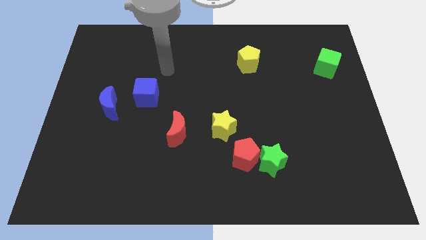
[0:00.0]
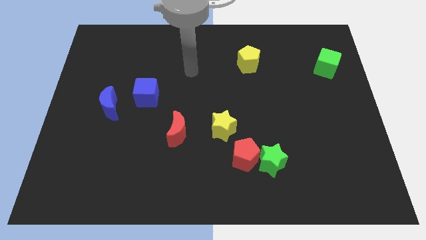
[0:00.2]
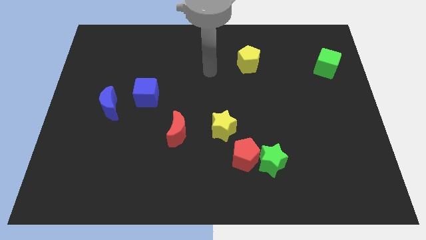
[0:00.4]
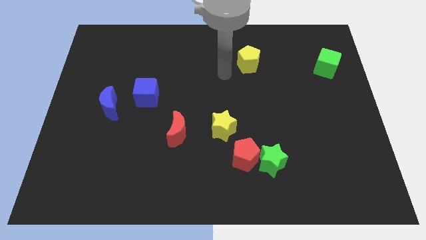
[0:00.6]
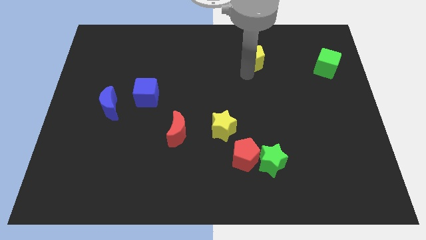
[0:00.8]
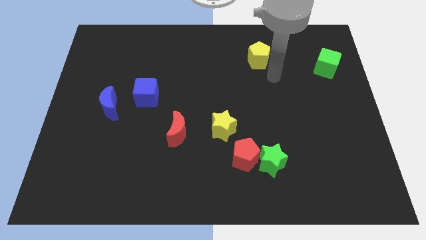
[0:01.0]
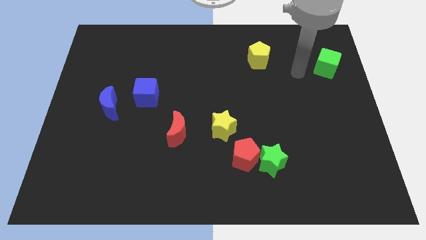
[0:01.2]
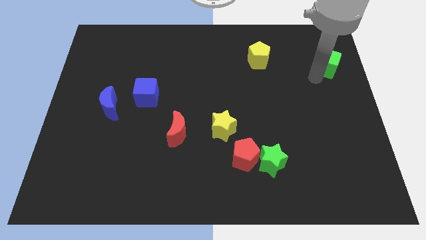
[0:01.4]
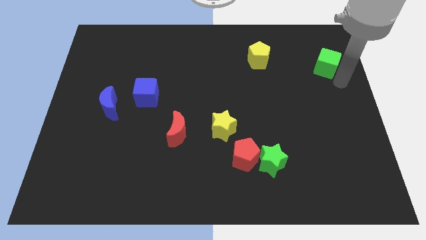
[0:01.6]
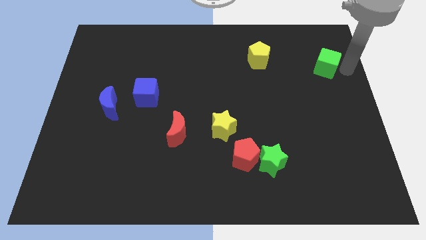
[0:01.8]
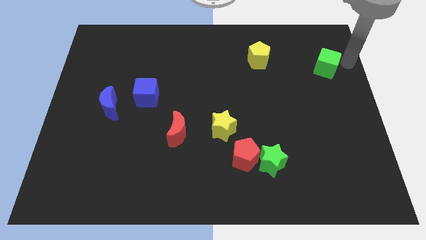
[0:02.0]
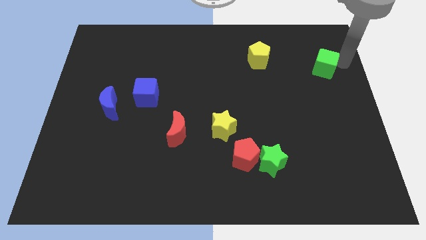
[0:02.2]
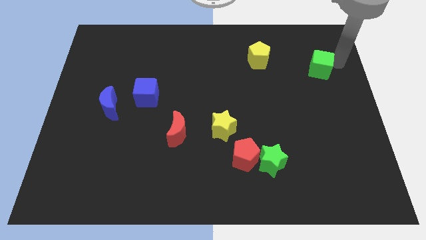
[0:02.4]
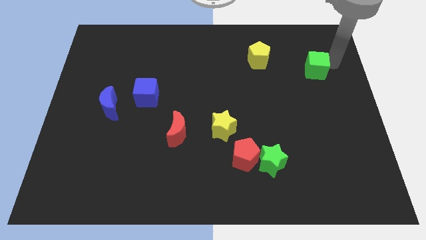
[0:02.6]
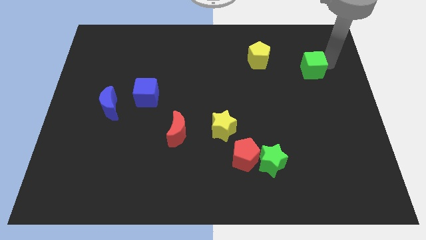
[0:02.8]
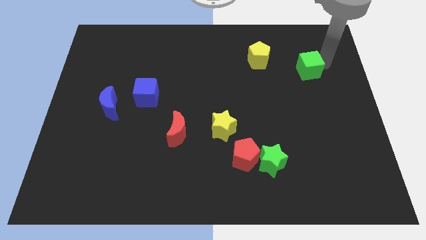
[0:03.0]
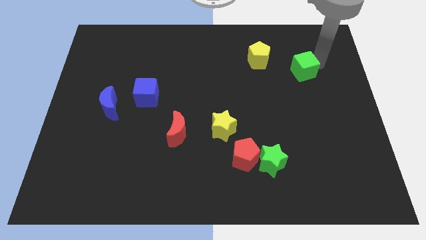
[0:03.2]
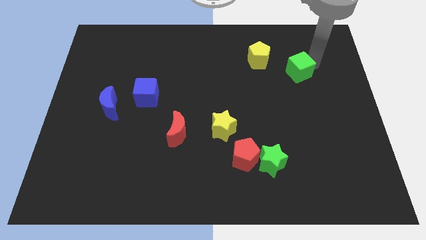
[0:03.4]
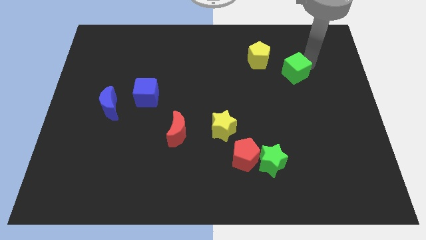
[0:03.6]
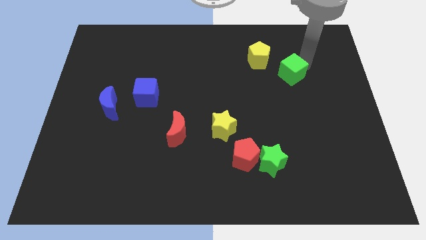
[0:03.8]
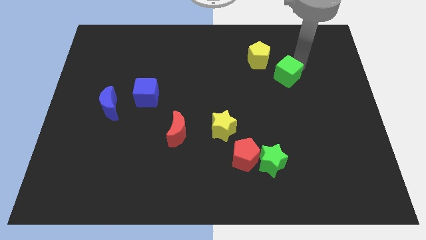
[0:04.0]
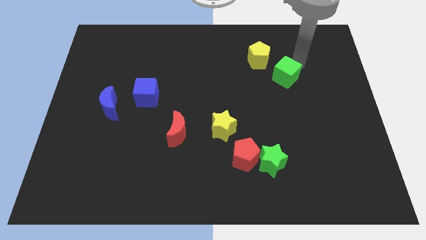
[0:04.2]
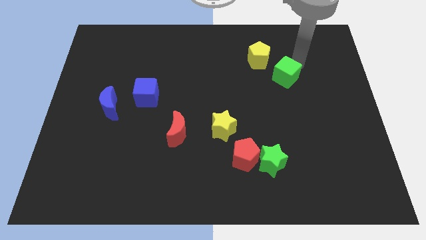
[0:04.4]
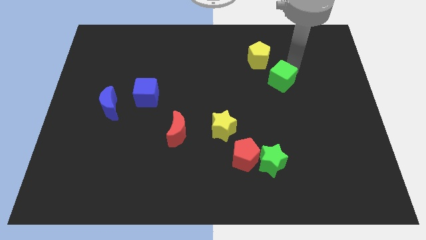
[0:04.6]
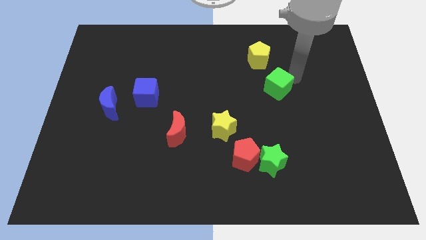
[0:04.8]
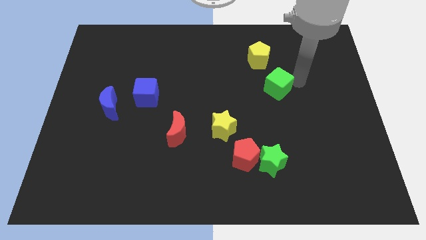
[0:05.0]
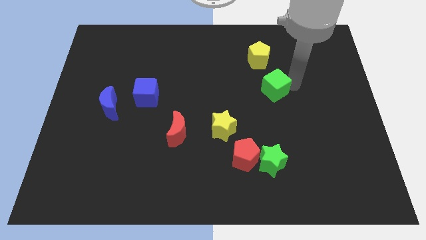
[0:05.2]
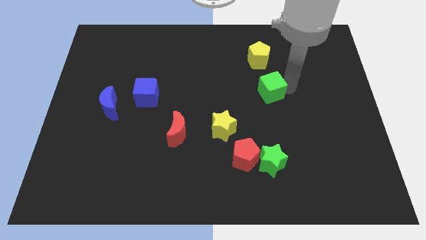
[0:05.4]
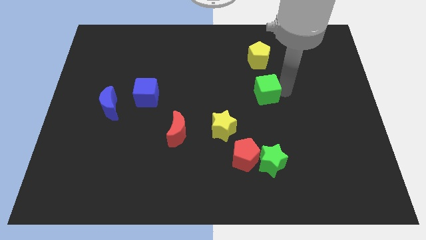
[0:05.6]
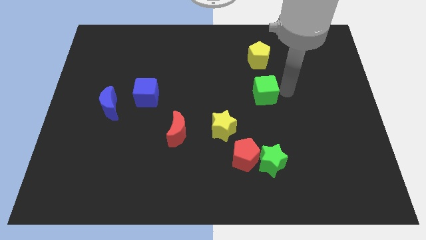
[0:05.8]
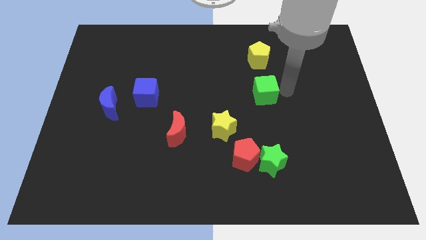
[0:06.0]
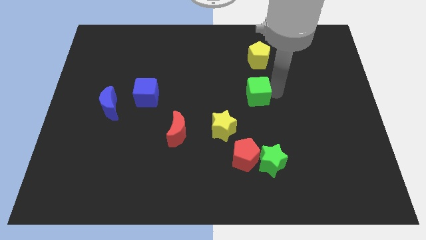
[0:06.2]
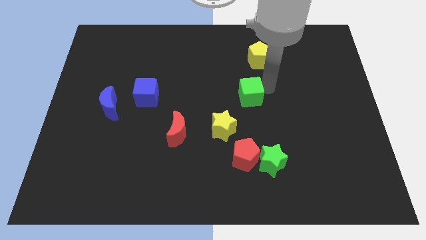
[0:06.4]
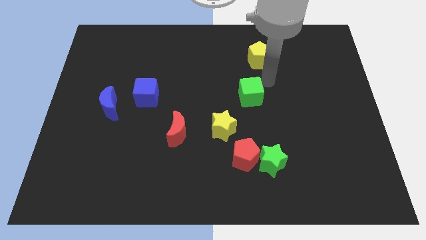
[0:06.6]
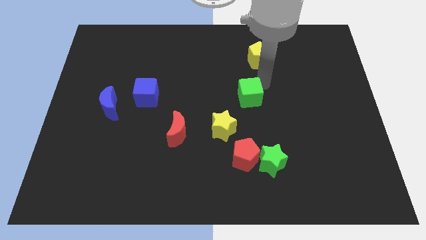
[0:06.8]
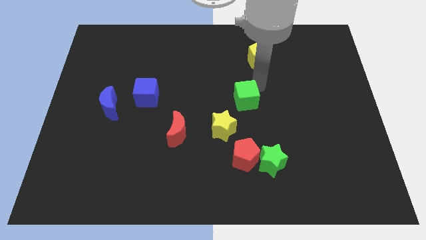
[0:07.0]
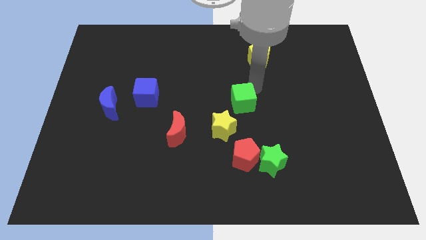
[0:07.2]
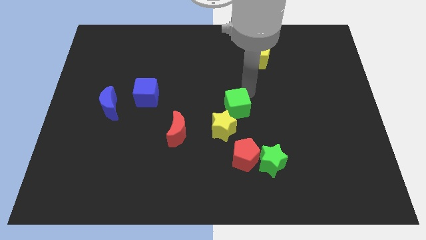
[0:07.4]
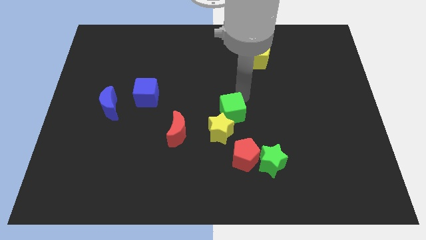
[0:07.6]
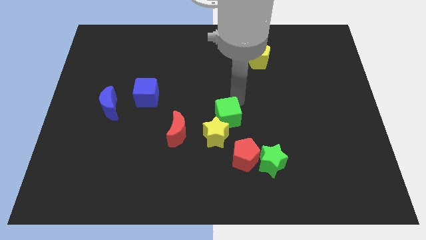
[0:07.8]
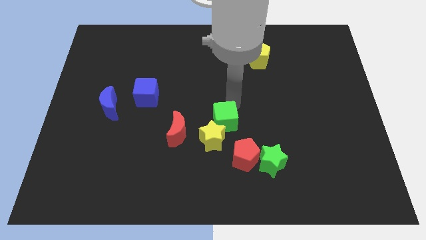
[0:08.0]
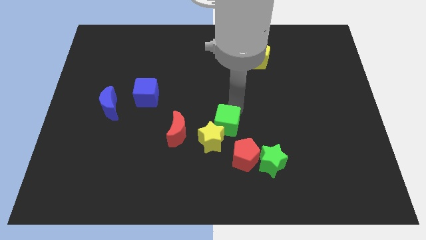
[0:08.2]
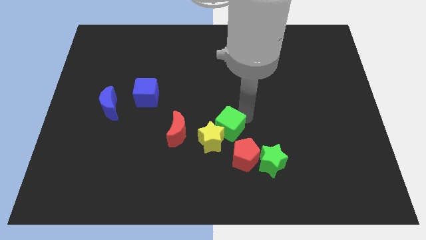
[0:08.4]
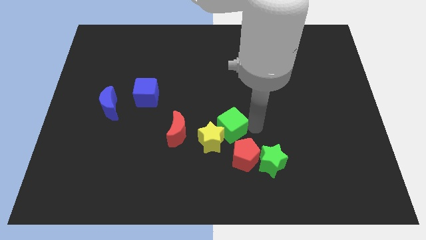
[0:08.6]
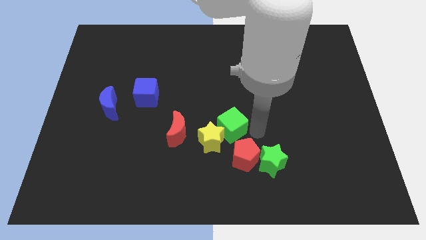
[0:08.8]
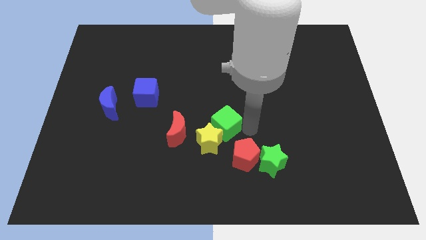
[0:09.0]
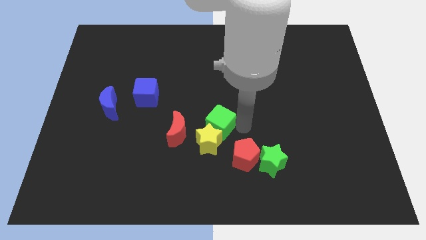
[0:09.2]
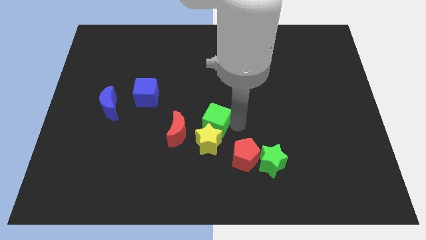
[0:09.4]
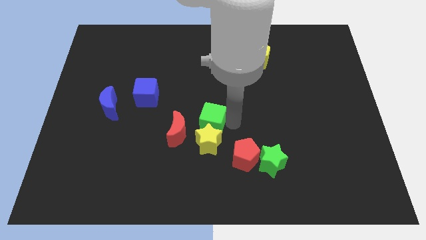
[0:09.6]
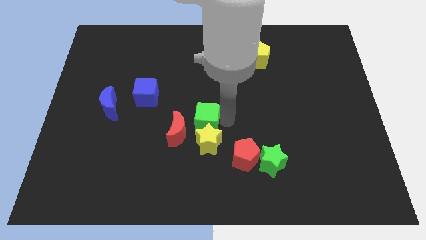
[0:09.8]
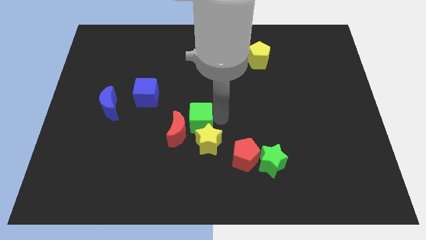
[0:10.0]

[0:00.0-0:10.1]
slide the green cube next to the red moon

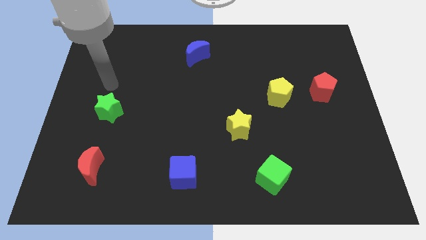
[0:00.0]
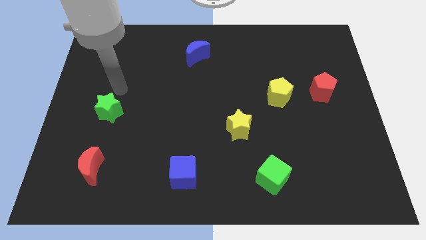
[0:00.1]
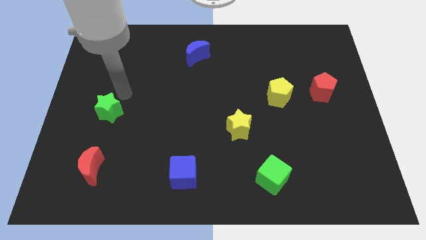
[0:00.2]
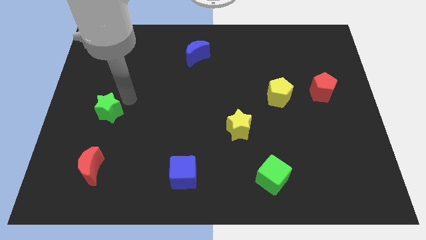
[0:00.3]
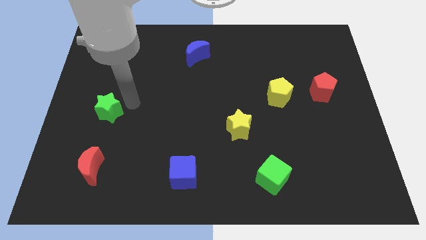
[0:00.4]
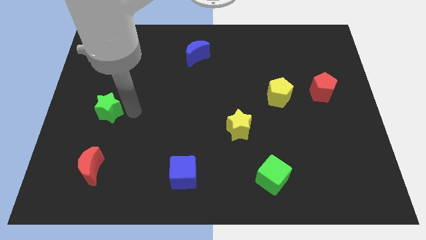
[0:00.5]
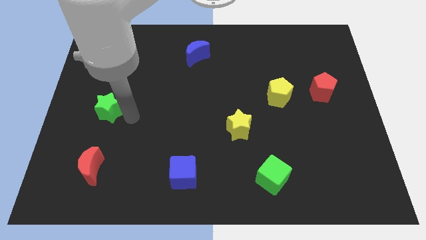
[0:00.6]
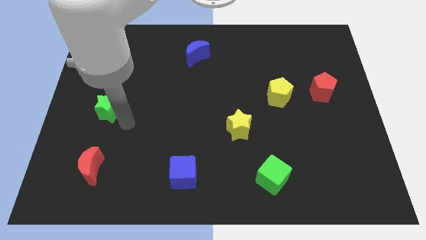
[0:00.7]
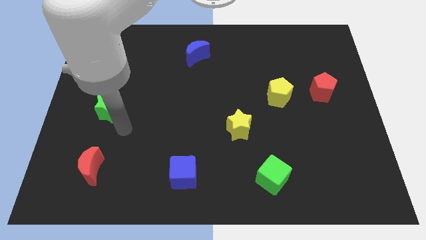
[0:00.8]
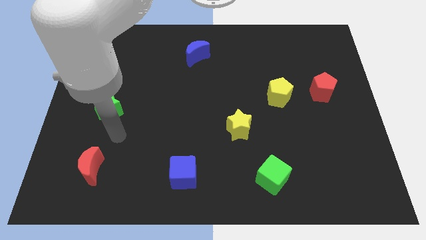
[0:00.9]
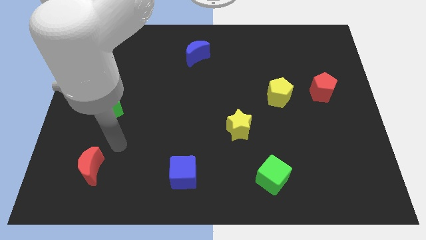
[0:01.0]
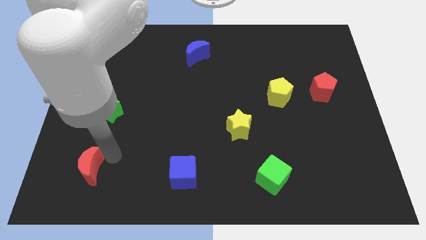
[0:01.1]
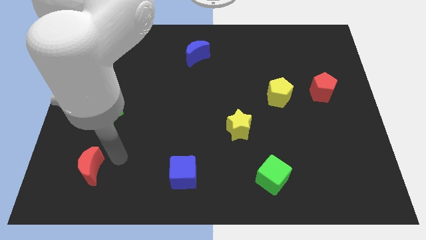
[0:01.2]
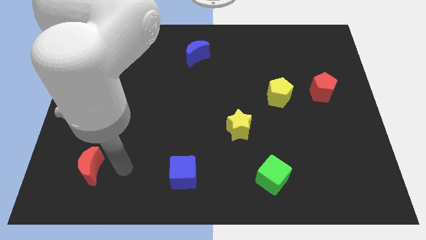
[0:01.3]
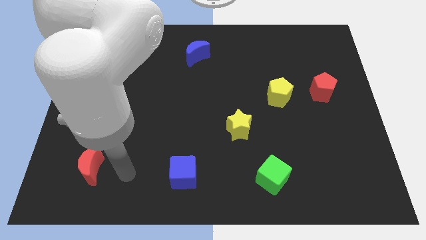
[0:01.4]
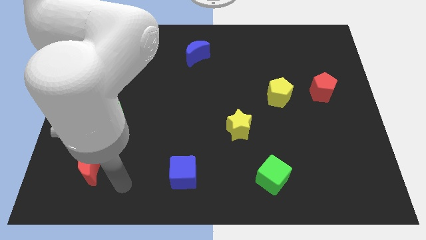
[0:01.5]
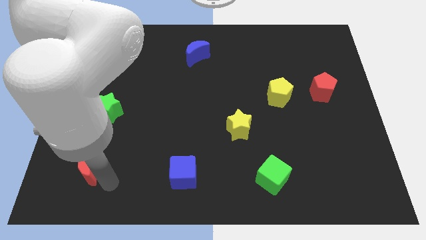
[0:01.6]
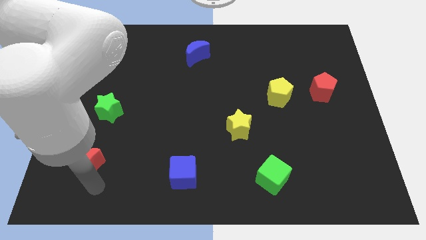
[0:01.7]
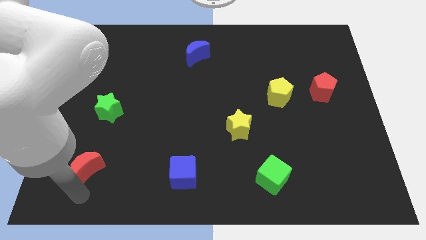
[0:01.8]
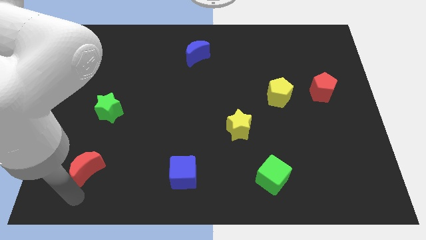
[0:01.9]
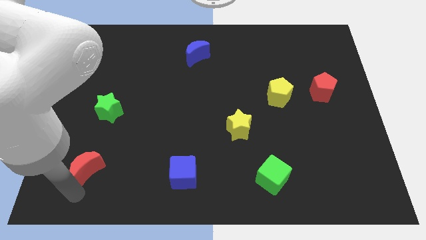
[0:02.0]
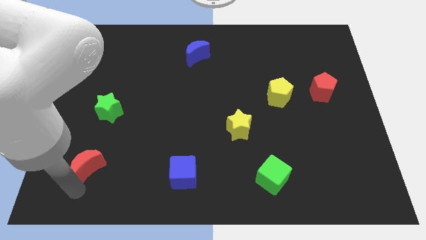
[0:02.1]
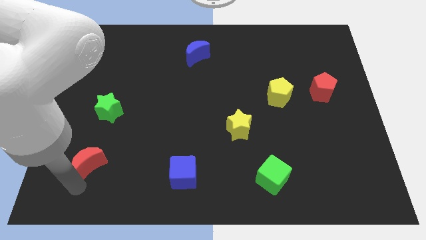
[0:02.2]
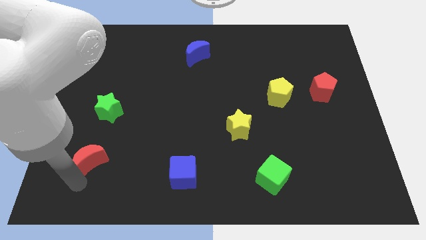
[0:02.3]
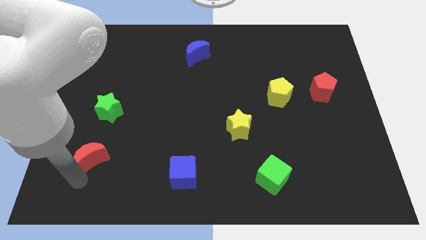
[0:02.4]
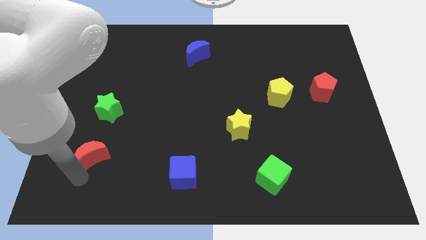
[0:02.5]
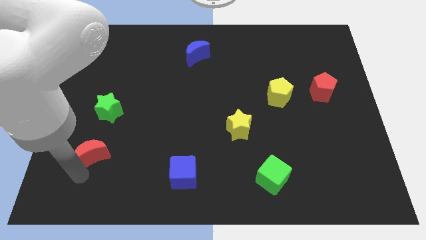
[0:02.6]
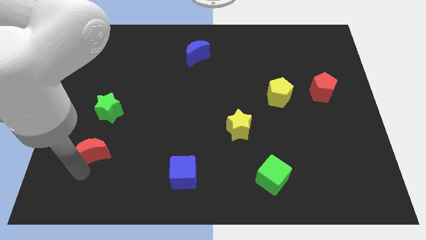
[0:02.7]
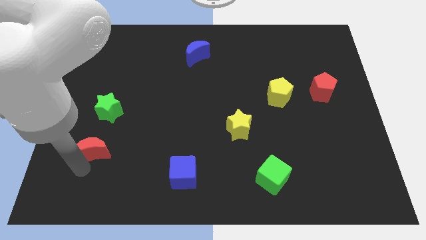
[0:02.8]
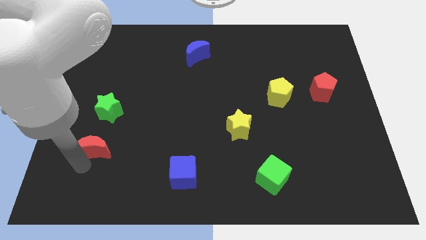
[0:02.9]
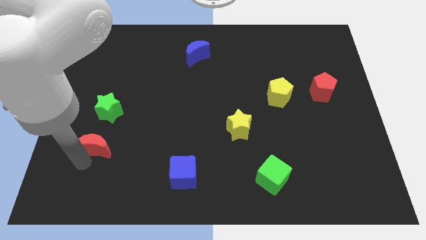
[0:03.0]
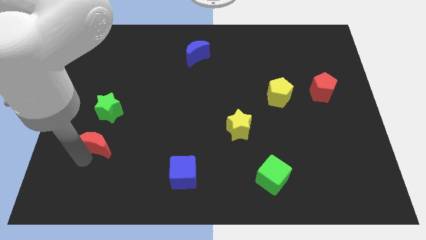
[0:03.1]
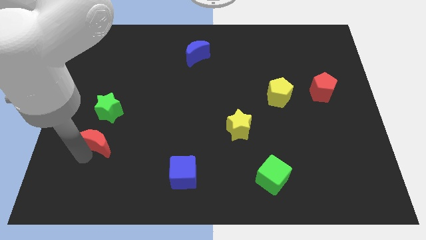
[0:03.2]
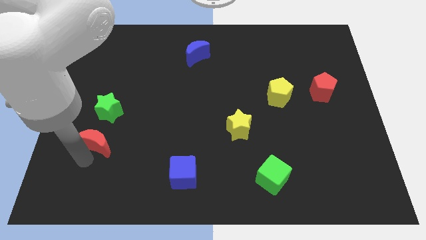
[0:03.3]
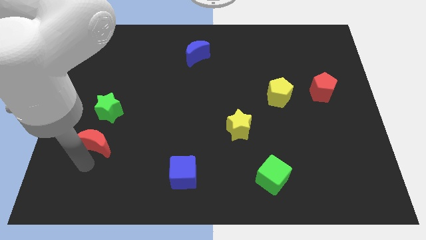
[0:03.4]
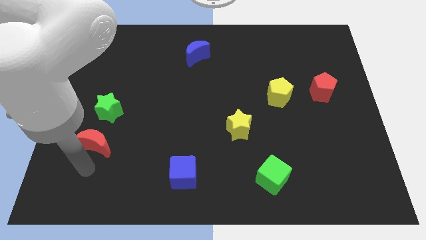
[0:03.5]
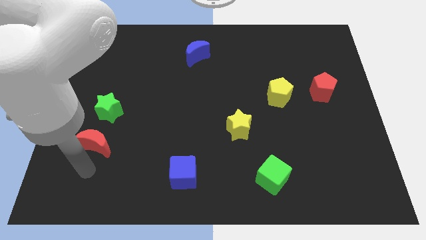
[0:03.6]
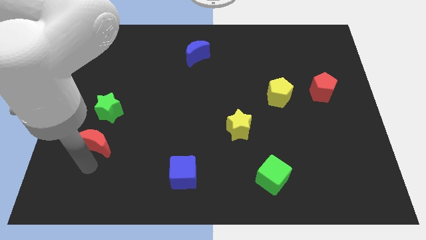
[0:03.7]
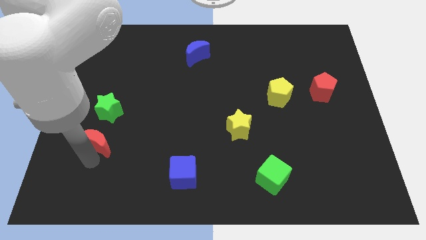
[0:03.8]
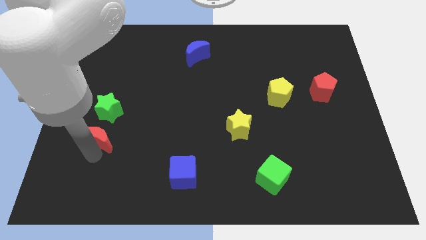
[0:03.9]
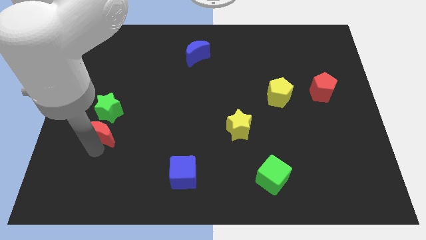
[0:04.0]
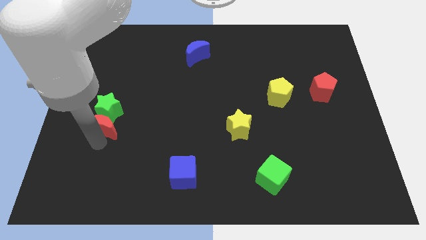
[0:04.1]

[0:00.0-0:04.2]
slide the red moon close to the green star
